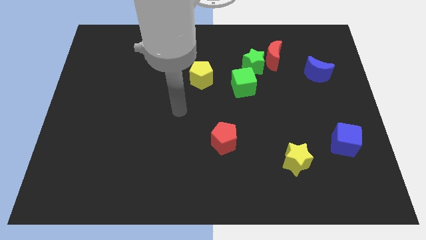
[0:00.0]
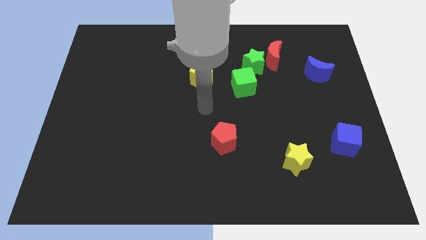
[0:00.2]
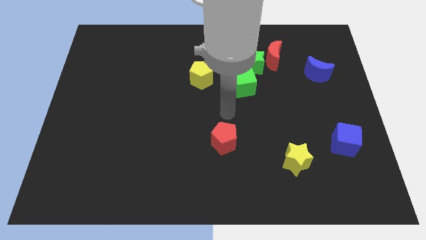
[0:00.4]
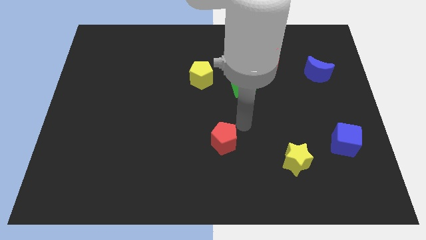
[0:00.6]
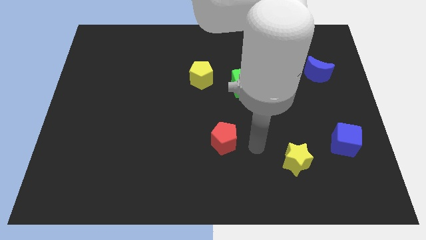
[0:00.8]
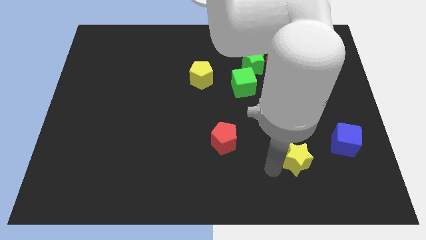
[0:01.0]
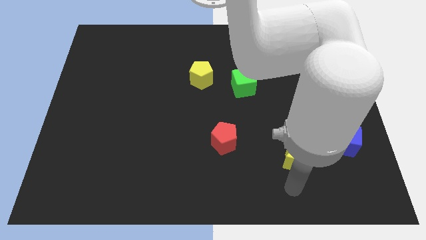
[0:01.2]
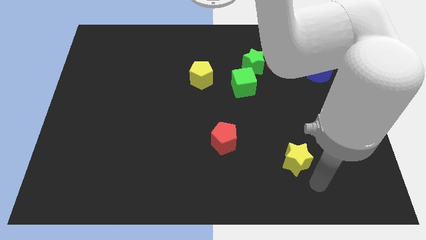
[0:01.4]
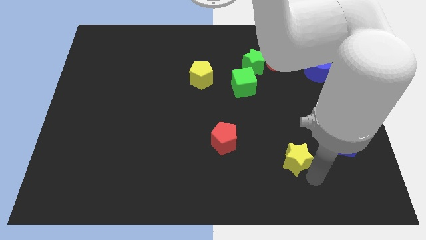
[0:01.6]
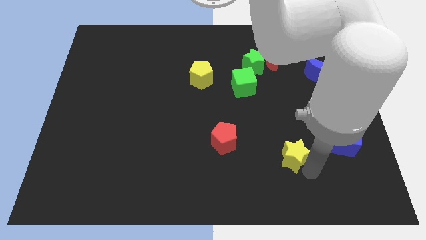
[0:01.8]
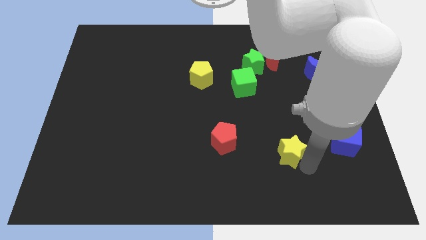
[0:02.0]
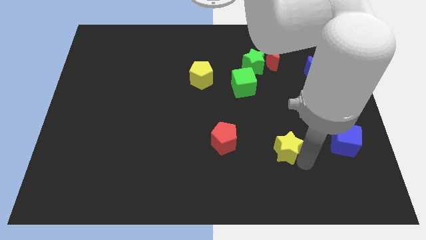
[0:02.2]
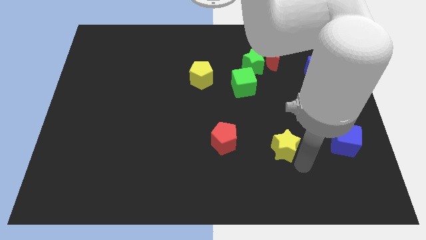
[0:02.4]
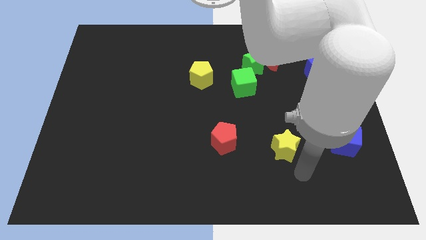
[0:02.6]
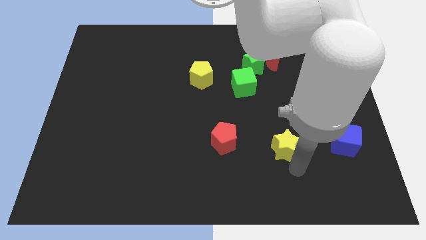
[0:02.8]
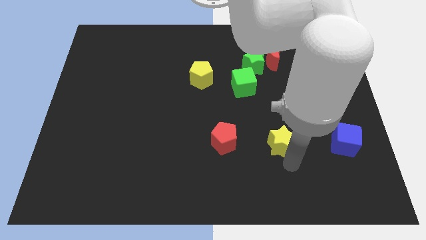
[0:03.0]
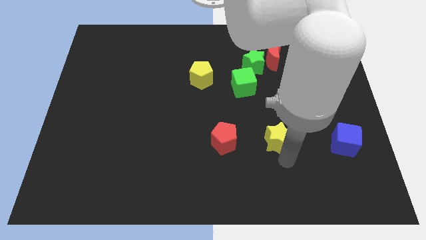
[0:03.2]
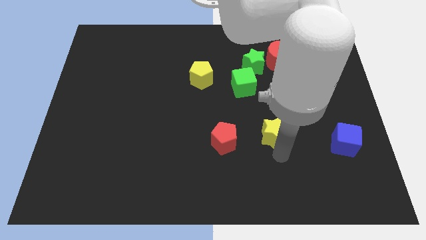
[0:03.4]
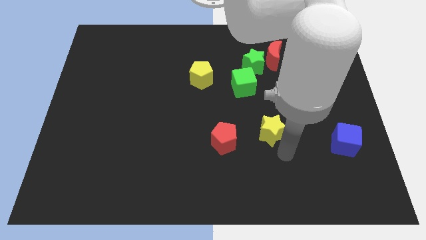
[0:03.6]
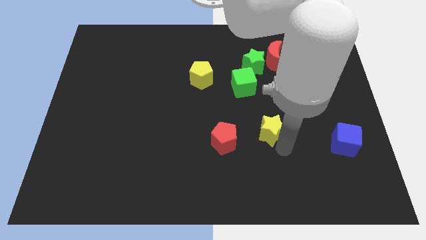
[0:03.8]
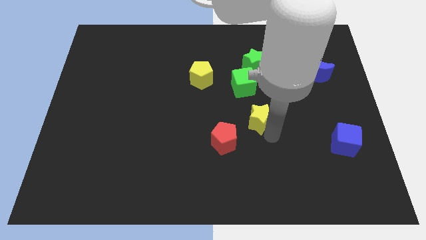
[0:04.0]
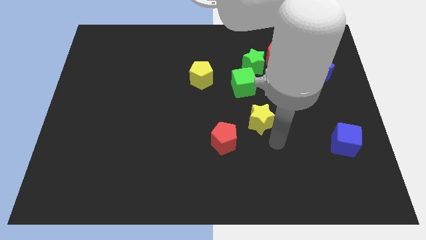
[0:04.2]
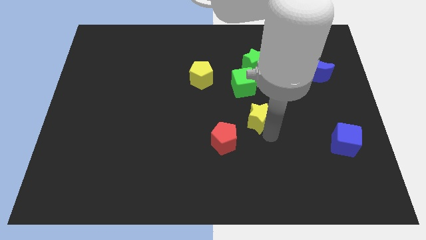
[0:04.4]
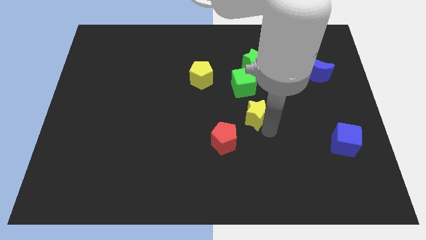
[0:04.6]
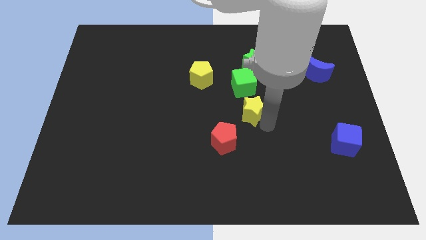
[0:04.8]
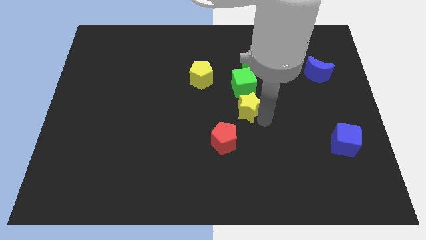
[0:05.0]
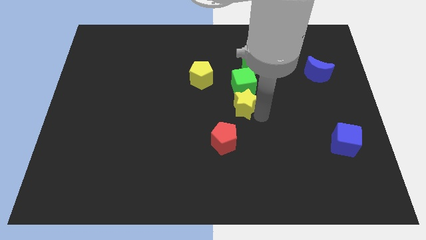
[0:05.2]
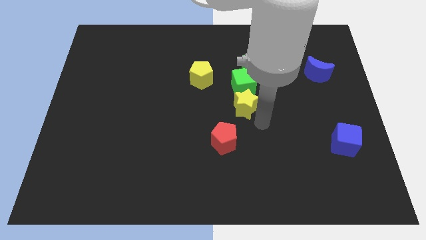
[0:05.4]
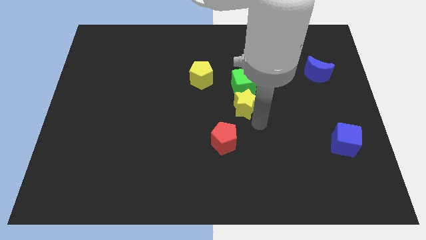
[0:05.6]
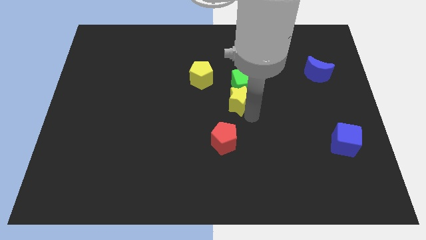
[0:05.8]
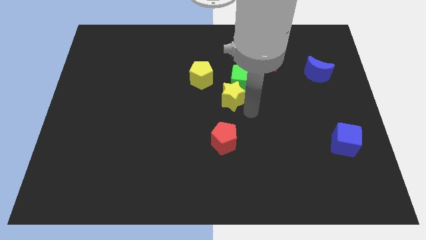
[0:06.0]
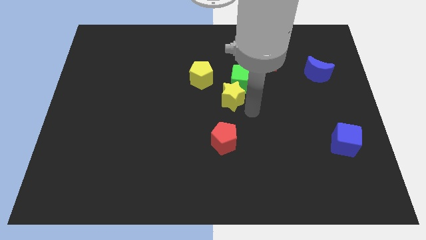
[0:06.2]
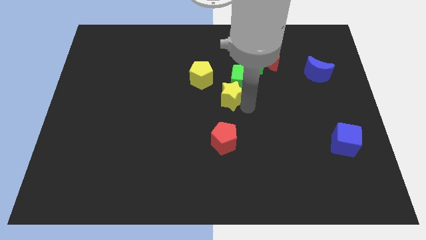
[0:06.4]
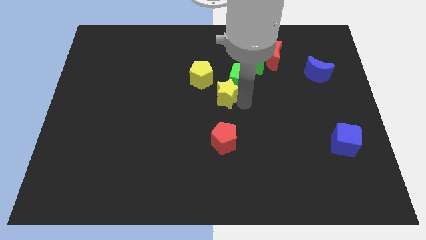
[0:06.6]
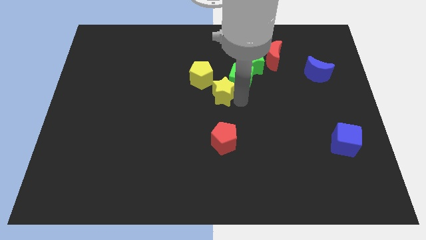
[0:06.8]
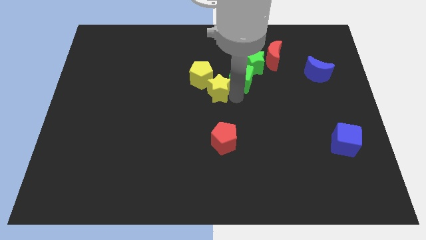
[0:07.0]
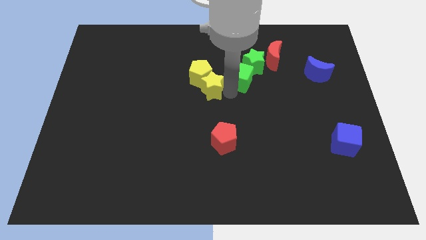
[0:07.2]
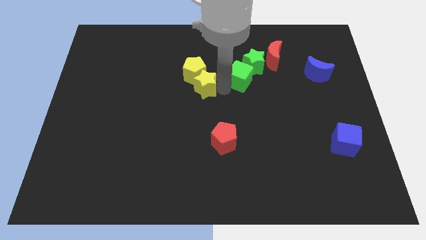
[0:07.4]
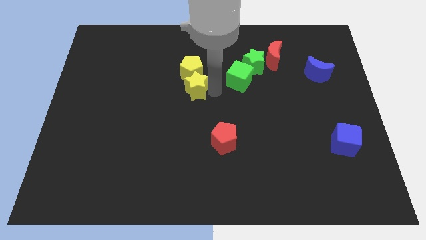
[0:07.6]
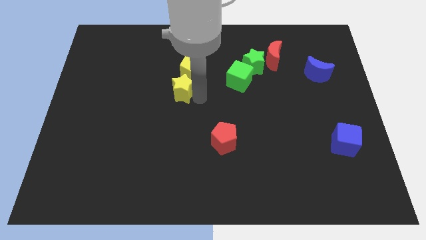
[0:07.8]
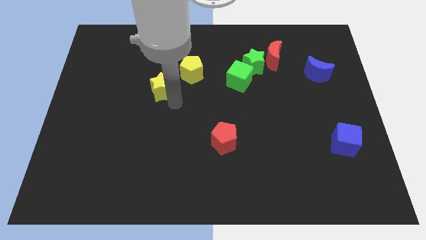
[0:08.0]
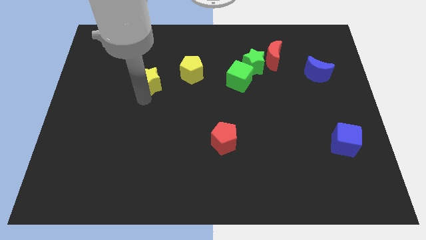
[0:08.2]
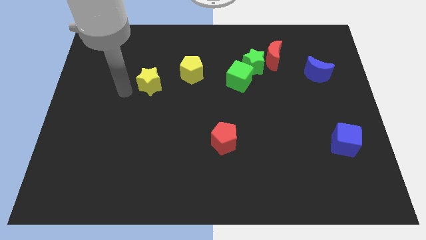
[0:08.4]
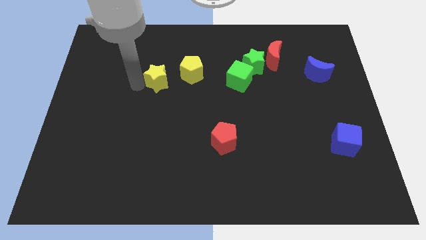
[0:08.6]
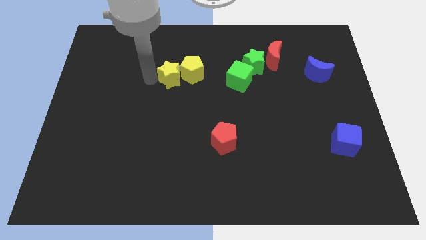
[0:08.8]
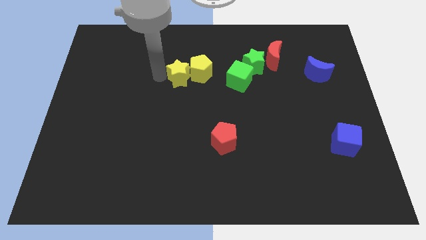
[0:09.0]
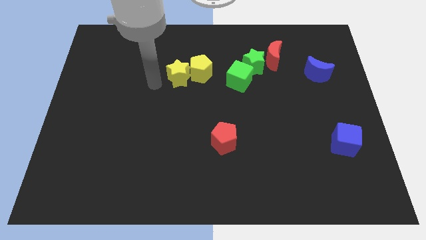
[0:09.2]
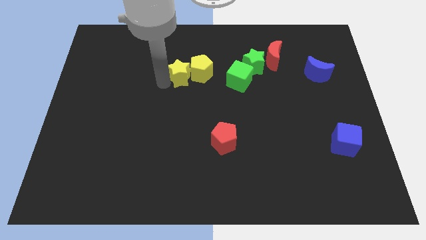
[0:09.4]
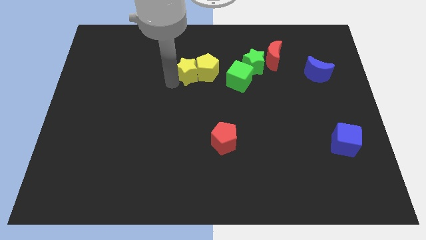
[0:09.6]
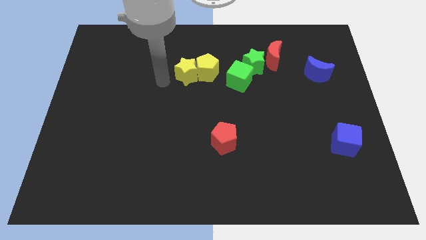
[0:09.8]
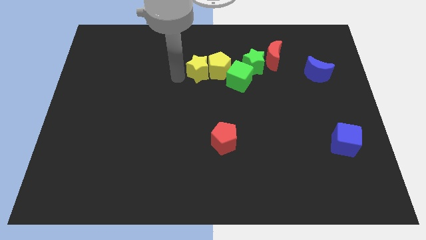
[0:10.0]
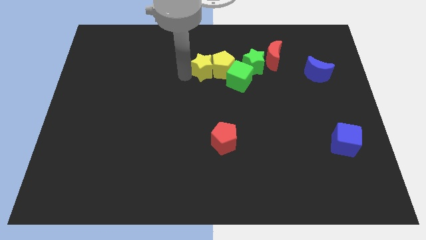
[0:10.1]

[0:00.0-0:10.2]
slide the yellow star to the top left of the green cube

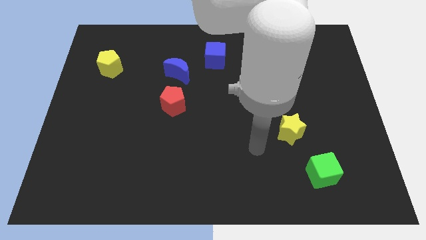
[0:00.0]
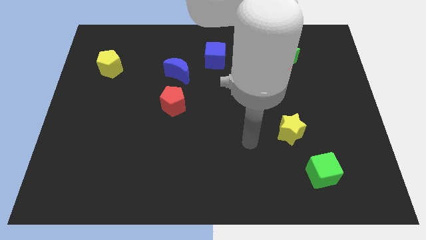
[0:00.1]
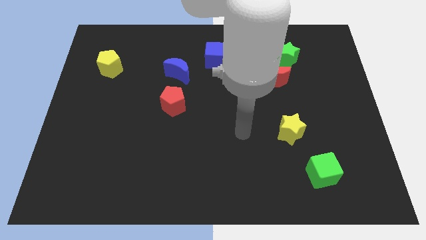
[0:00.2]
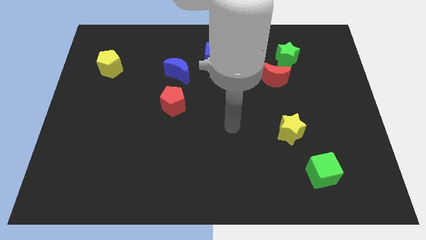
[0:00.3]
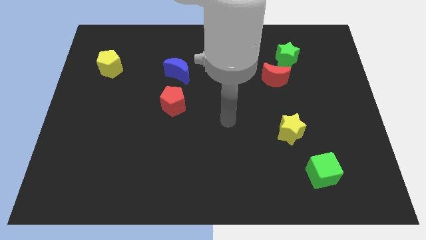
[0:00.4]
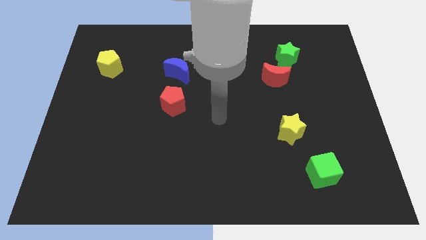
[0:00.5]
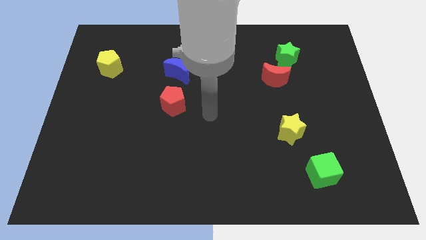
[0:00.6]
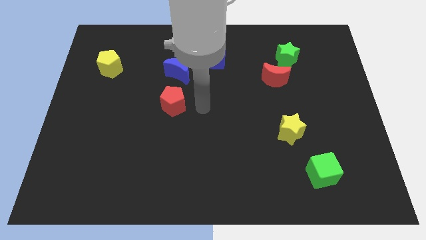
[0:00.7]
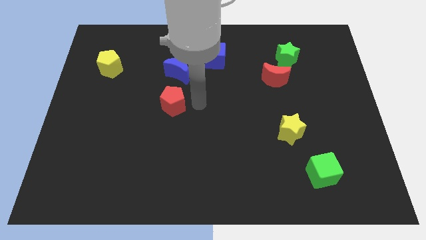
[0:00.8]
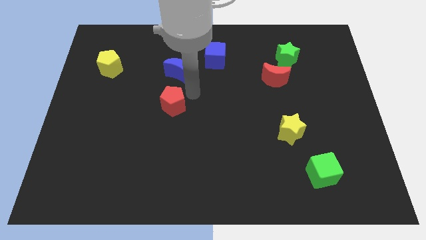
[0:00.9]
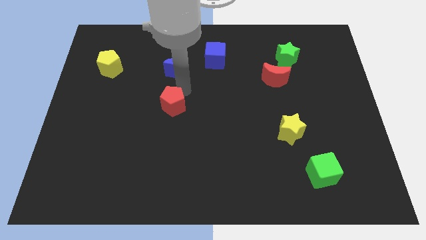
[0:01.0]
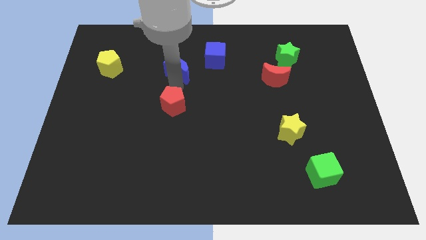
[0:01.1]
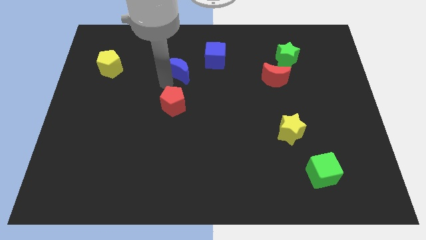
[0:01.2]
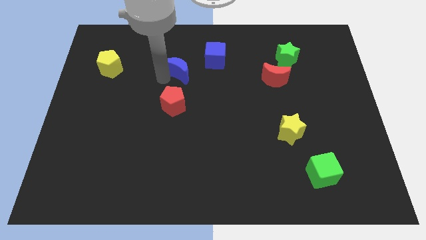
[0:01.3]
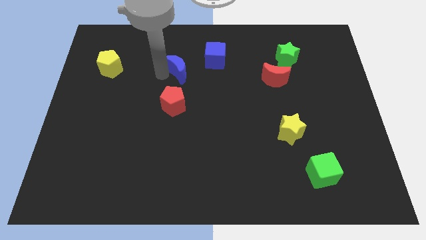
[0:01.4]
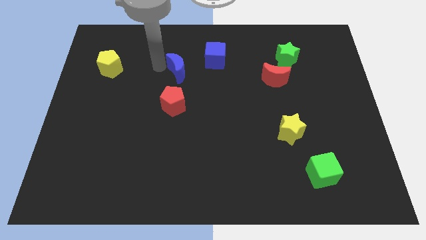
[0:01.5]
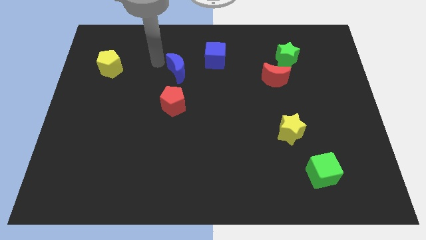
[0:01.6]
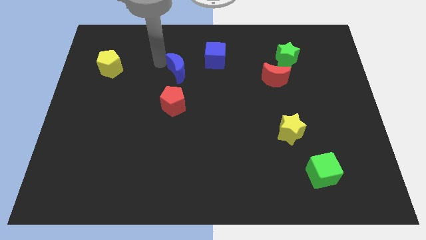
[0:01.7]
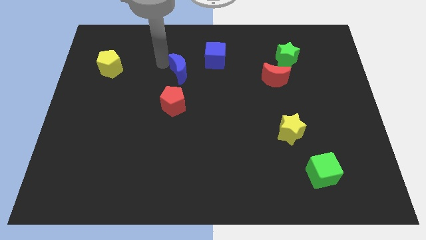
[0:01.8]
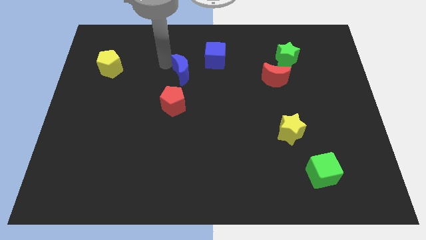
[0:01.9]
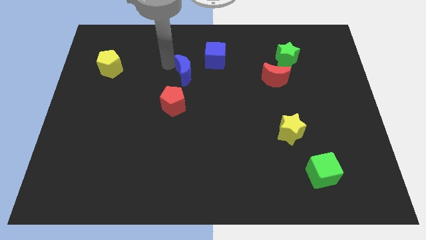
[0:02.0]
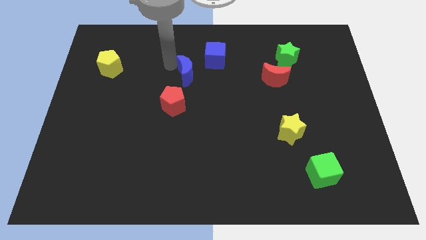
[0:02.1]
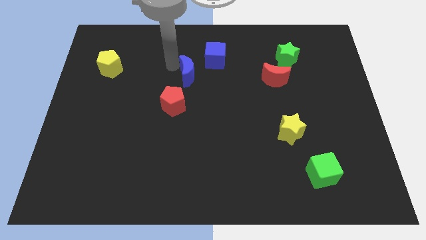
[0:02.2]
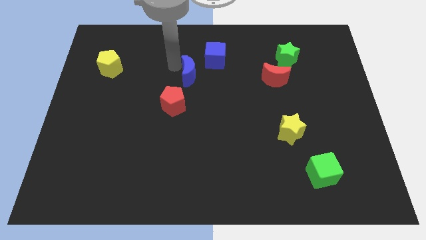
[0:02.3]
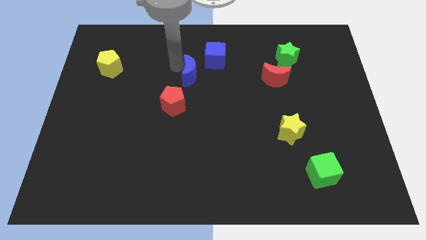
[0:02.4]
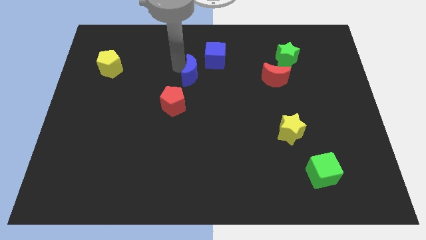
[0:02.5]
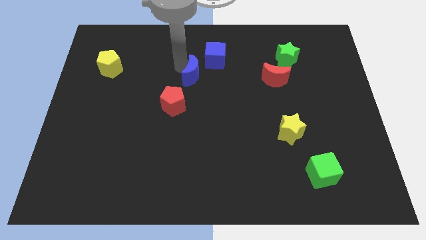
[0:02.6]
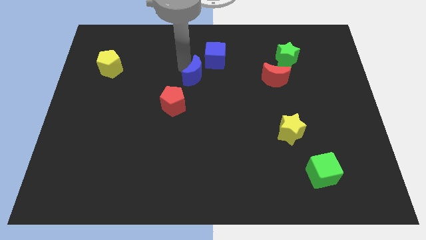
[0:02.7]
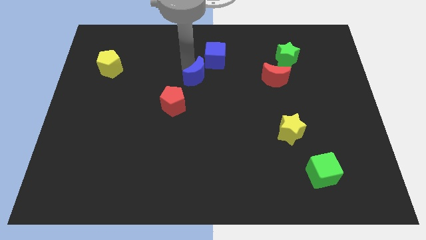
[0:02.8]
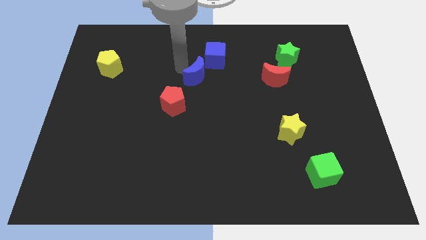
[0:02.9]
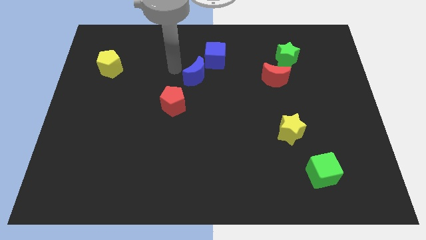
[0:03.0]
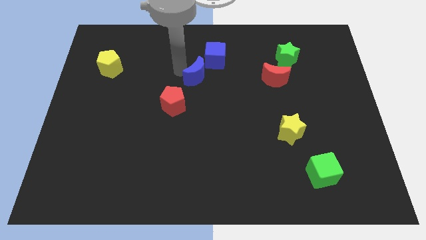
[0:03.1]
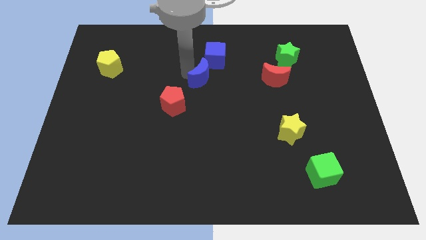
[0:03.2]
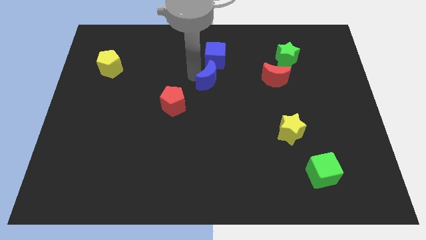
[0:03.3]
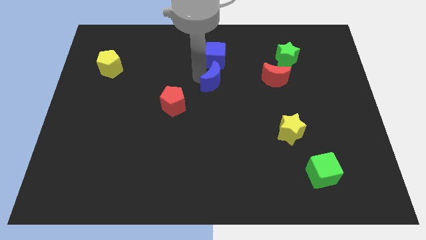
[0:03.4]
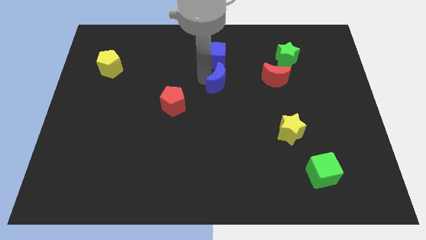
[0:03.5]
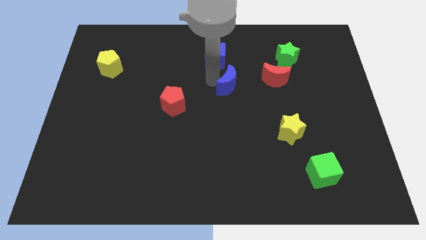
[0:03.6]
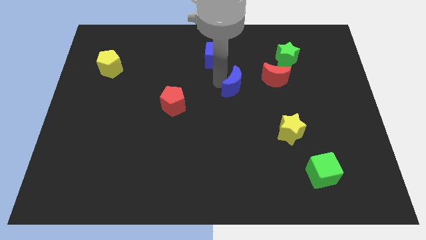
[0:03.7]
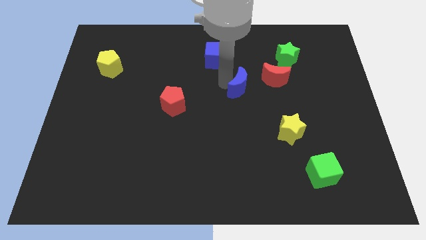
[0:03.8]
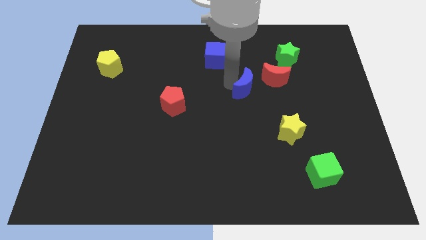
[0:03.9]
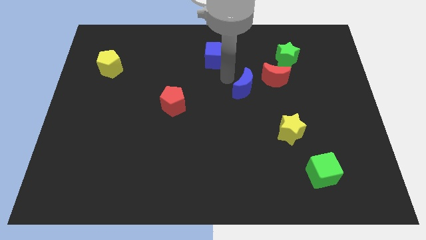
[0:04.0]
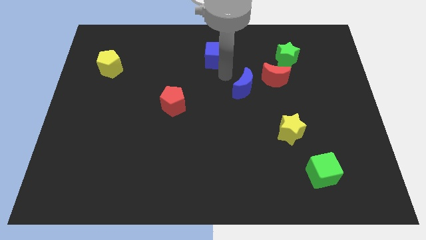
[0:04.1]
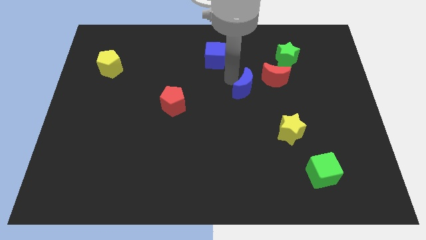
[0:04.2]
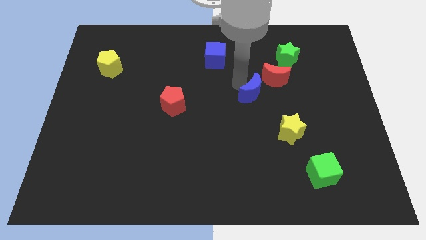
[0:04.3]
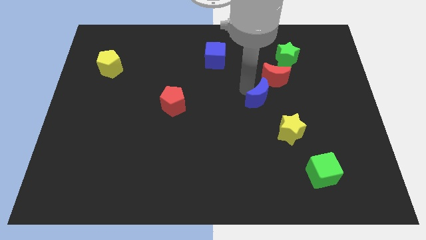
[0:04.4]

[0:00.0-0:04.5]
push the blue moon to the bottom side of the red moon
